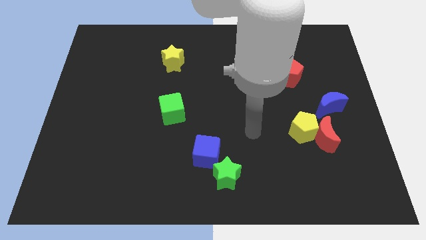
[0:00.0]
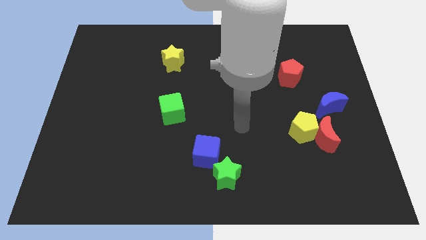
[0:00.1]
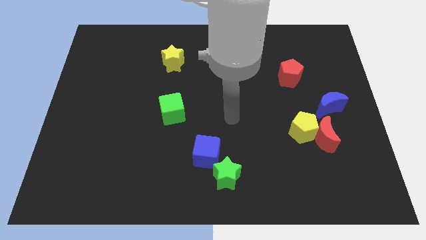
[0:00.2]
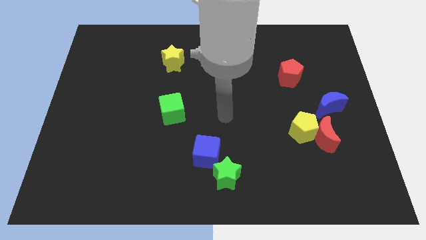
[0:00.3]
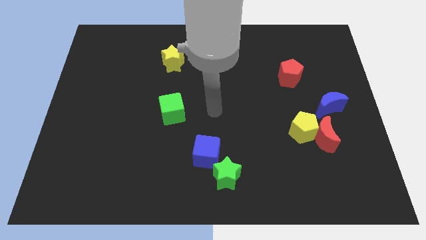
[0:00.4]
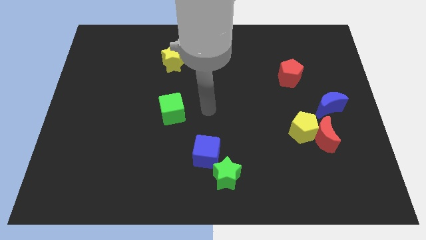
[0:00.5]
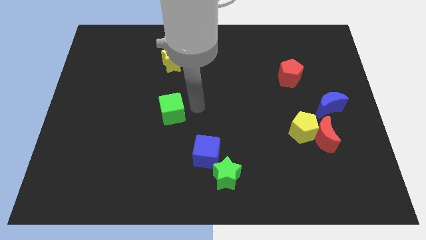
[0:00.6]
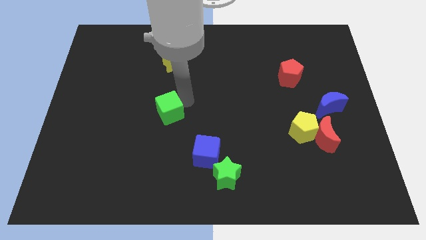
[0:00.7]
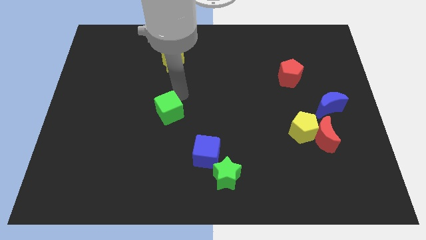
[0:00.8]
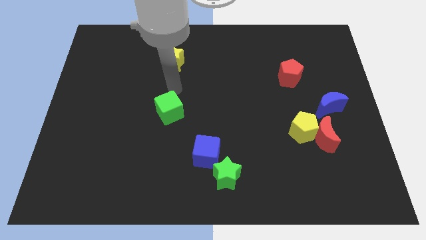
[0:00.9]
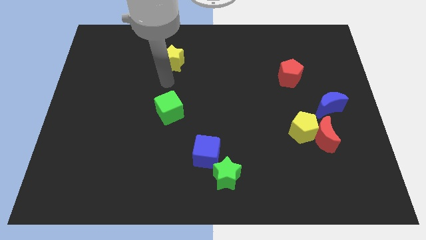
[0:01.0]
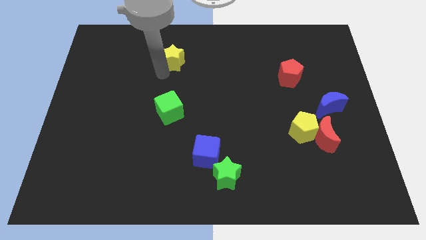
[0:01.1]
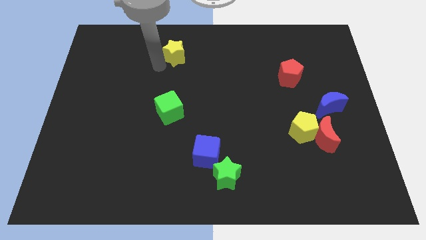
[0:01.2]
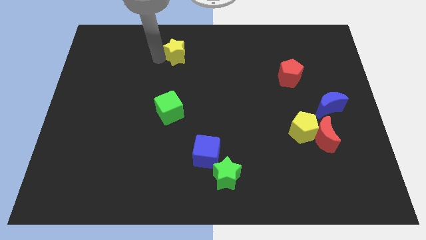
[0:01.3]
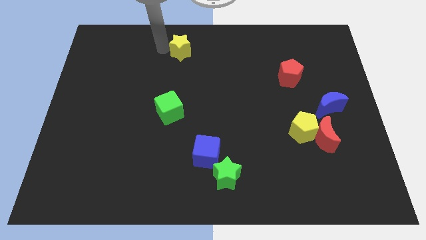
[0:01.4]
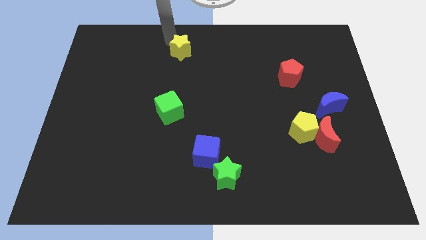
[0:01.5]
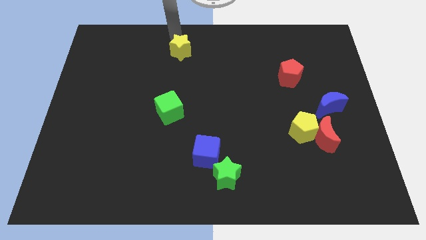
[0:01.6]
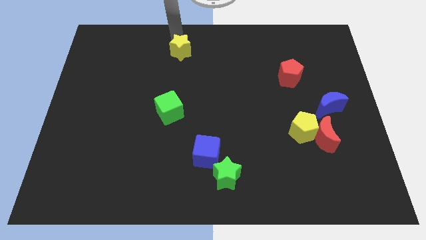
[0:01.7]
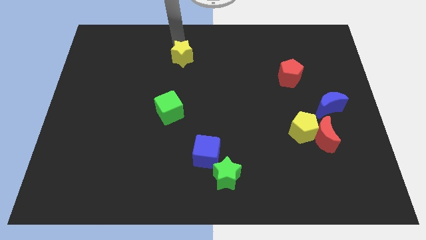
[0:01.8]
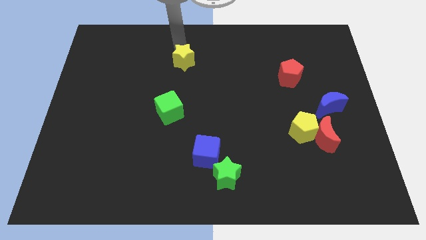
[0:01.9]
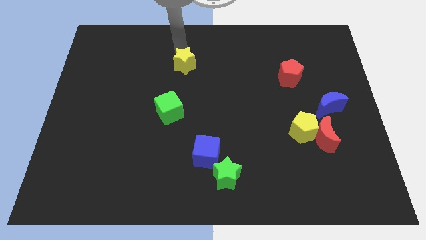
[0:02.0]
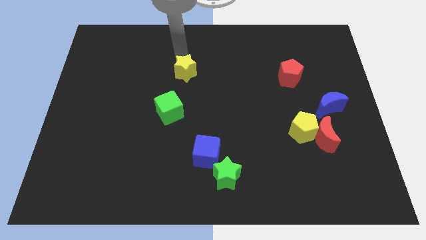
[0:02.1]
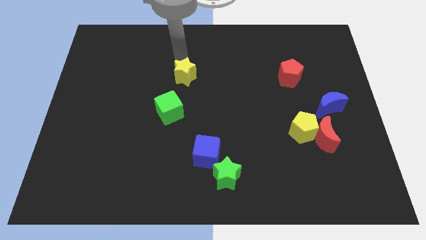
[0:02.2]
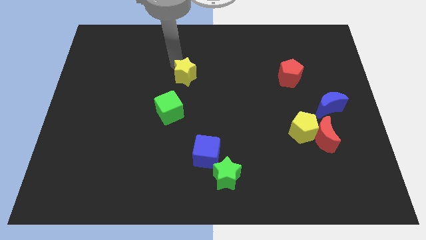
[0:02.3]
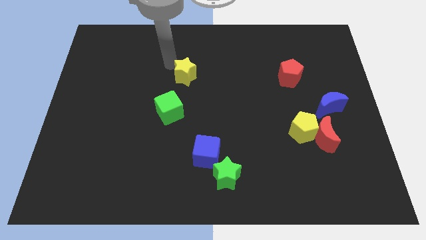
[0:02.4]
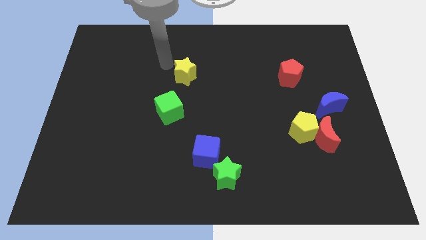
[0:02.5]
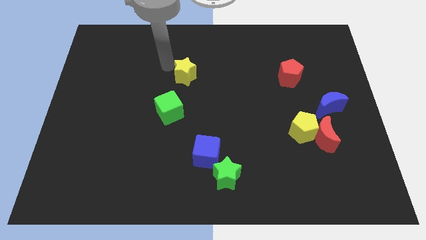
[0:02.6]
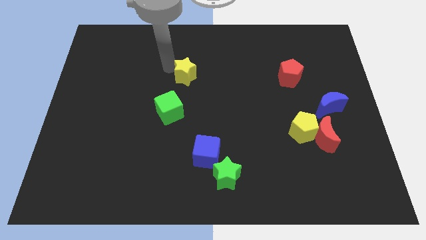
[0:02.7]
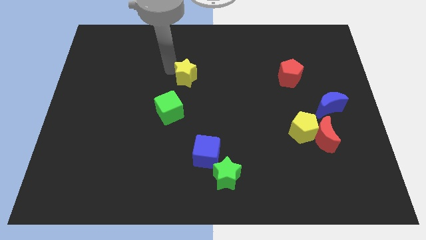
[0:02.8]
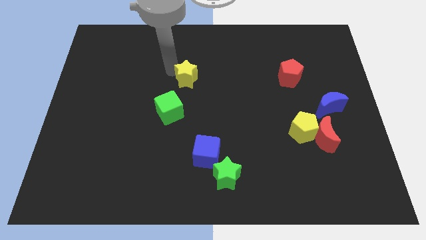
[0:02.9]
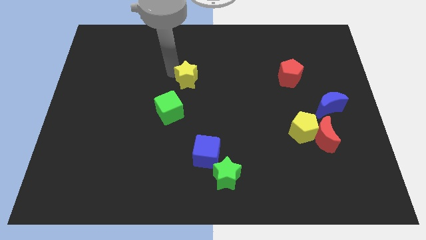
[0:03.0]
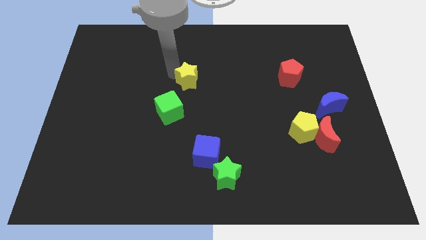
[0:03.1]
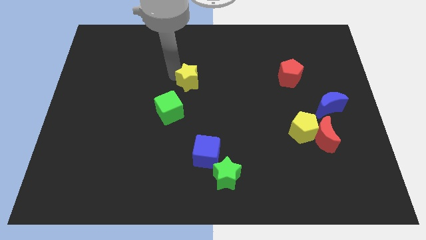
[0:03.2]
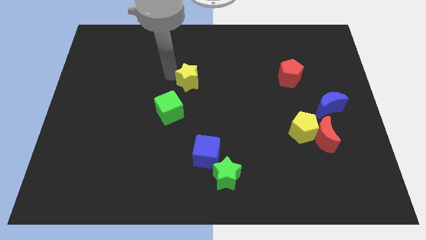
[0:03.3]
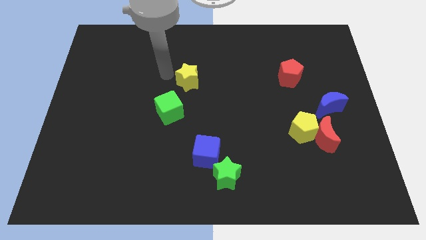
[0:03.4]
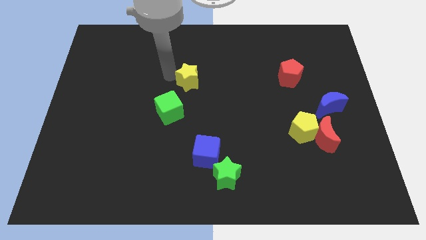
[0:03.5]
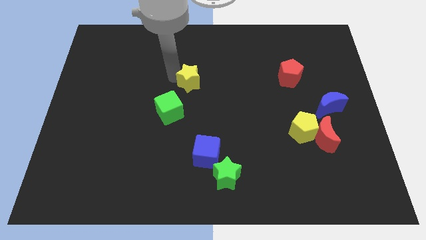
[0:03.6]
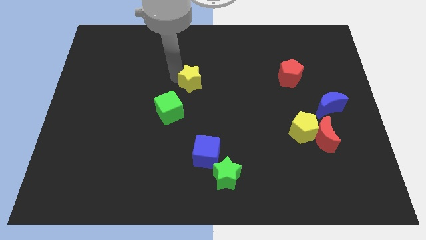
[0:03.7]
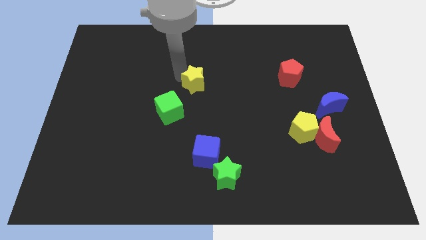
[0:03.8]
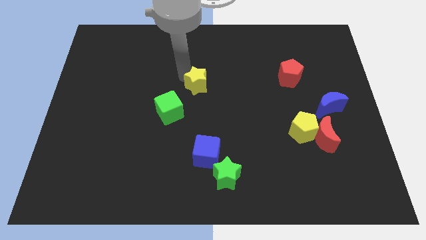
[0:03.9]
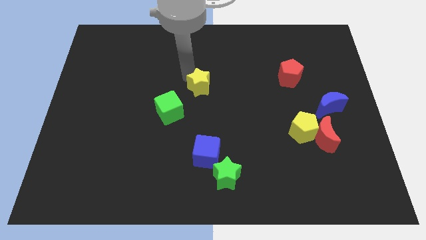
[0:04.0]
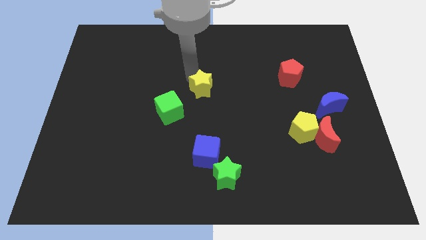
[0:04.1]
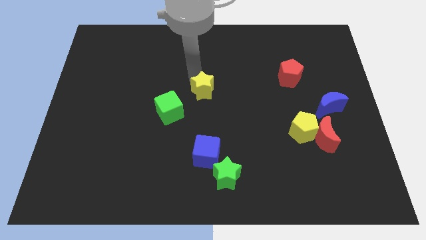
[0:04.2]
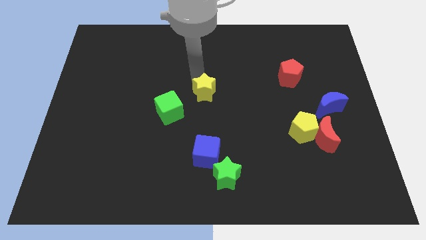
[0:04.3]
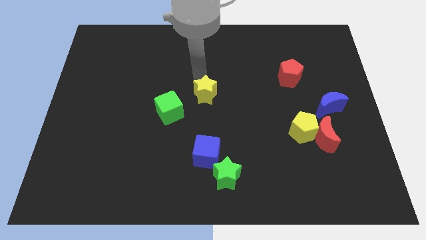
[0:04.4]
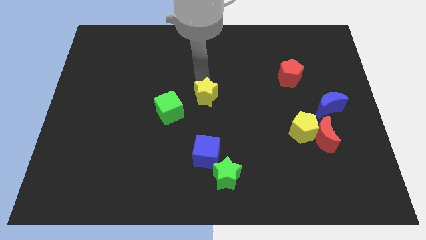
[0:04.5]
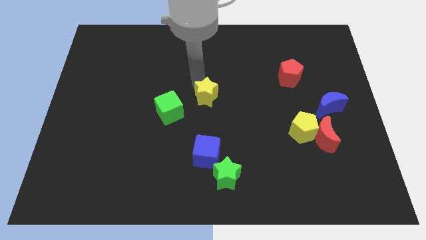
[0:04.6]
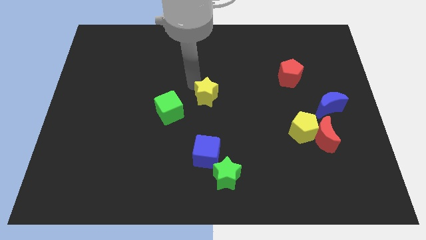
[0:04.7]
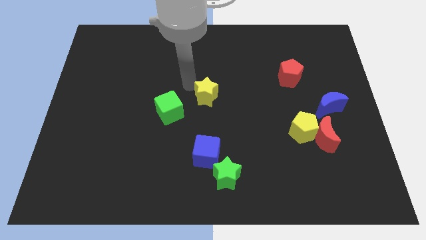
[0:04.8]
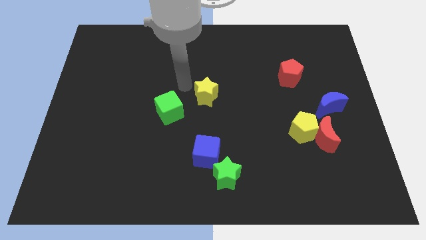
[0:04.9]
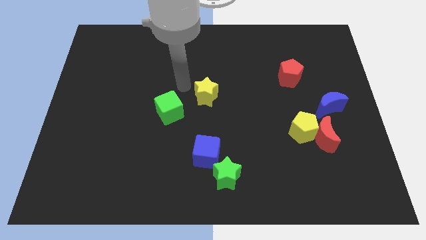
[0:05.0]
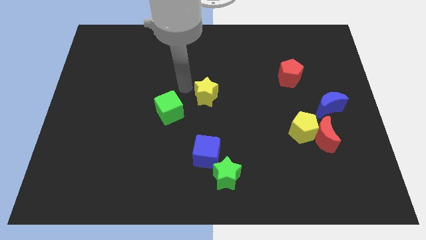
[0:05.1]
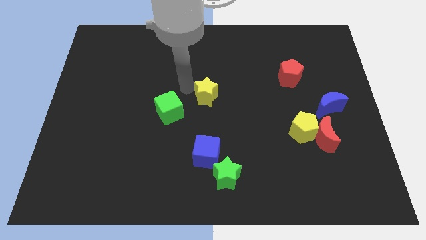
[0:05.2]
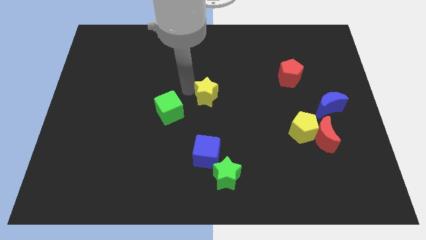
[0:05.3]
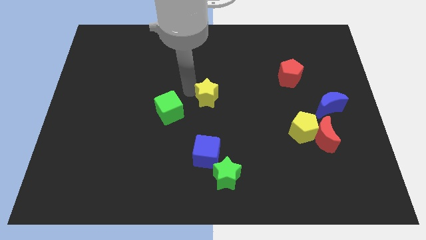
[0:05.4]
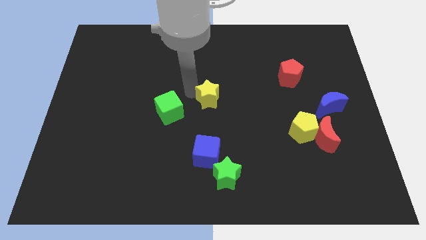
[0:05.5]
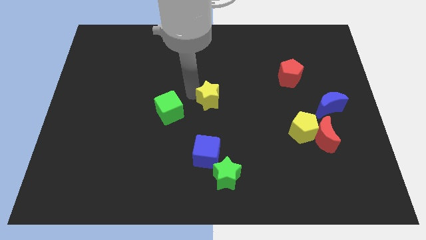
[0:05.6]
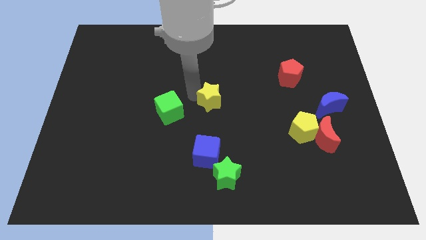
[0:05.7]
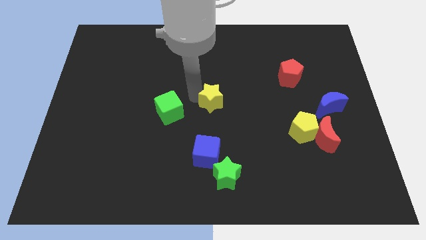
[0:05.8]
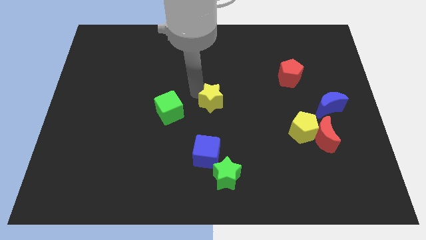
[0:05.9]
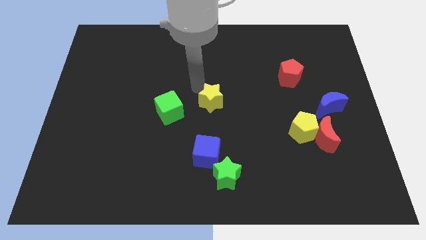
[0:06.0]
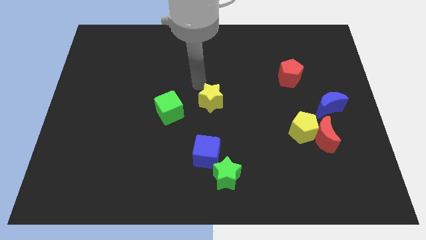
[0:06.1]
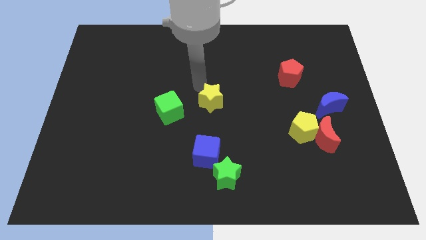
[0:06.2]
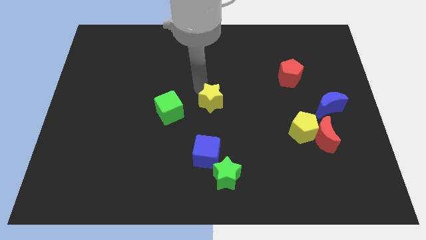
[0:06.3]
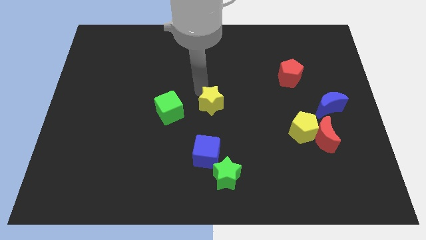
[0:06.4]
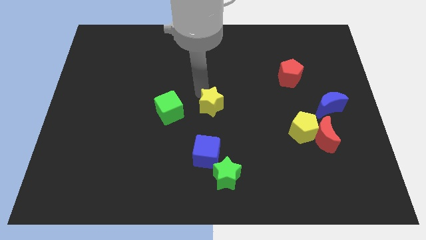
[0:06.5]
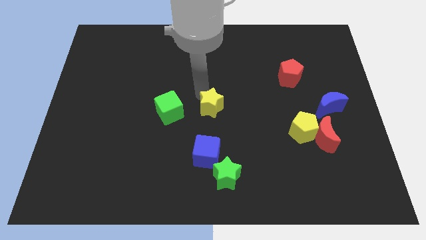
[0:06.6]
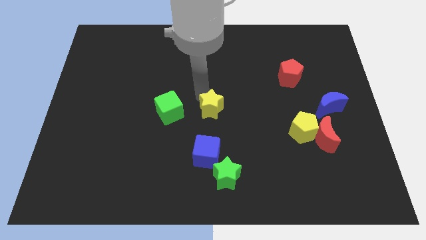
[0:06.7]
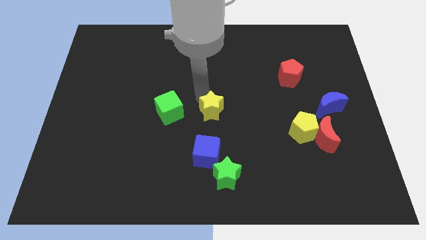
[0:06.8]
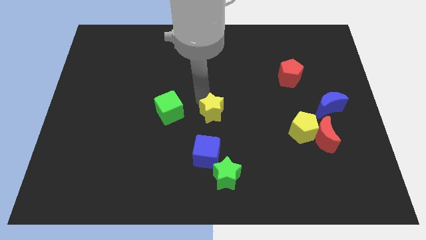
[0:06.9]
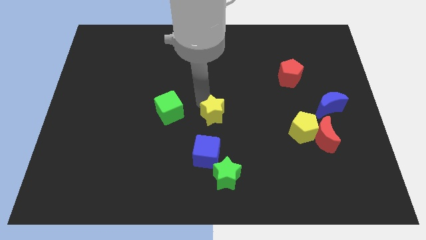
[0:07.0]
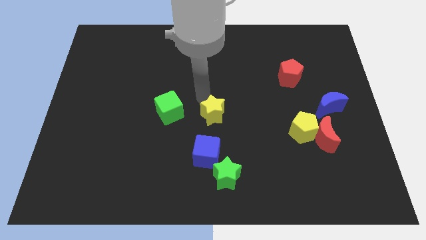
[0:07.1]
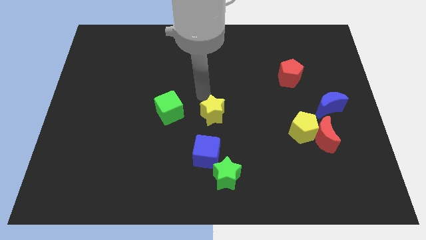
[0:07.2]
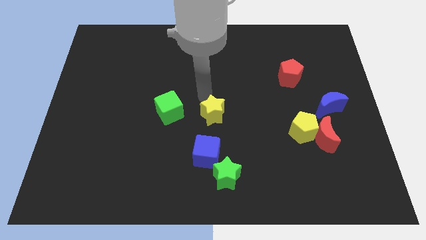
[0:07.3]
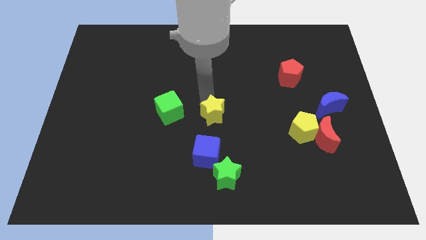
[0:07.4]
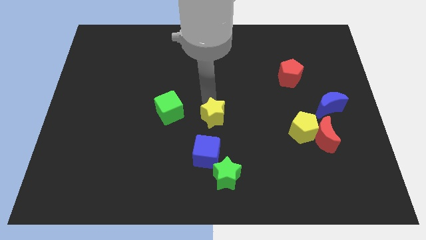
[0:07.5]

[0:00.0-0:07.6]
move the yellow star to the top of the green star

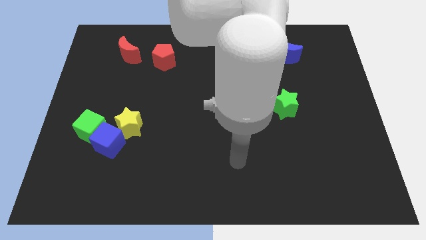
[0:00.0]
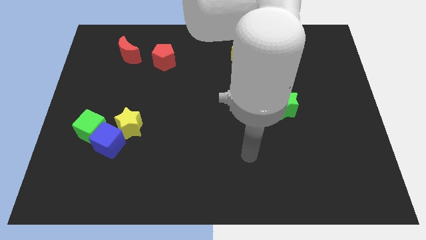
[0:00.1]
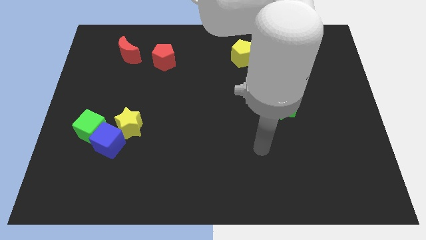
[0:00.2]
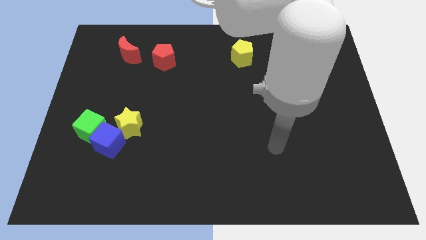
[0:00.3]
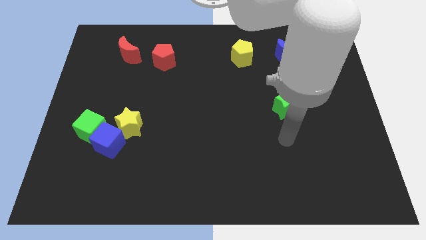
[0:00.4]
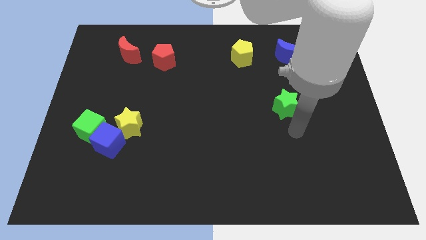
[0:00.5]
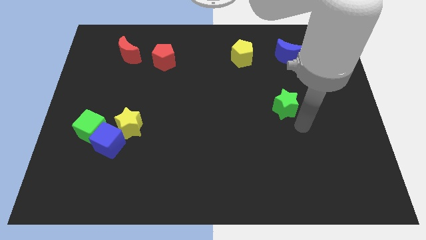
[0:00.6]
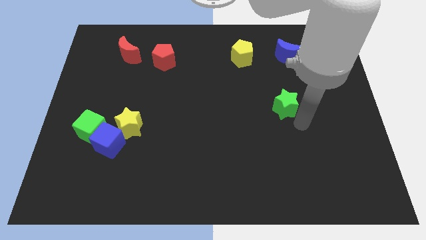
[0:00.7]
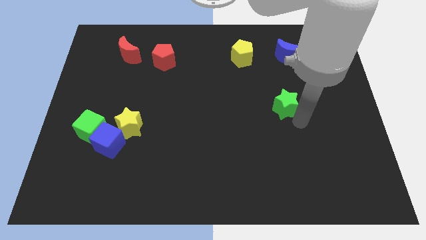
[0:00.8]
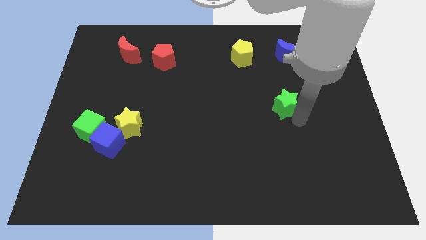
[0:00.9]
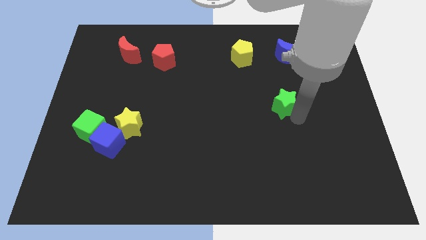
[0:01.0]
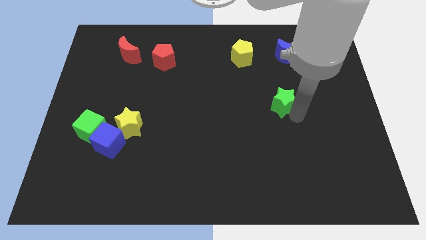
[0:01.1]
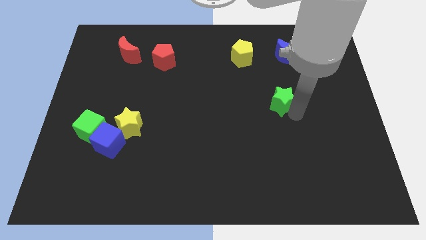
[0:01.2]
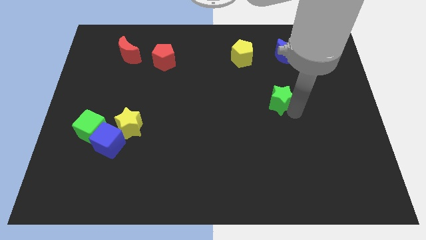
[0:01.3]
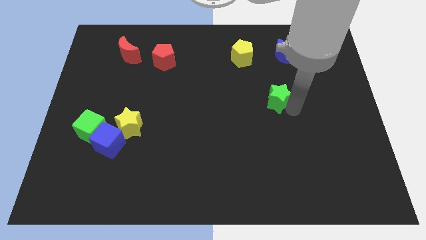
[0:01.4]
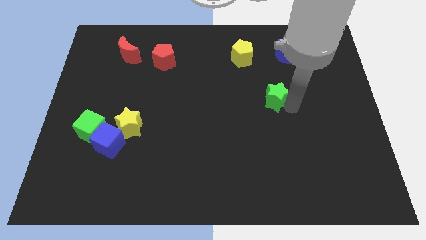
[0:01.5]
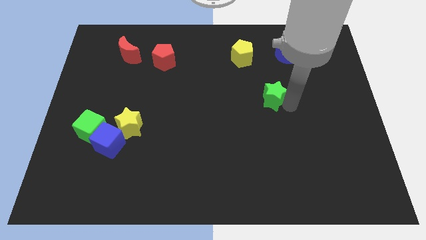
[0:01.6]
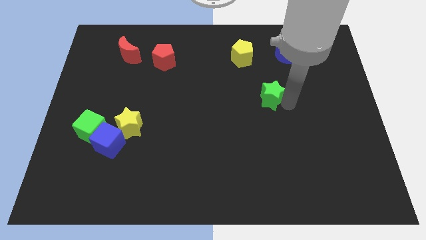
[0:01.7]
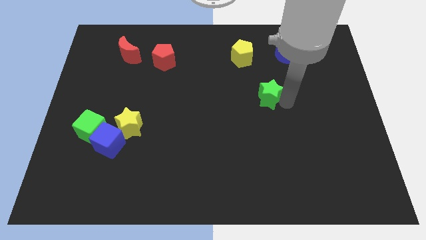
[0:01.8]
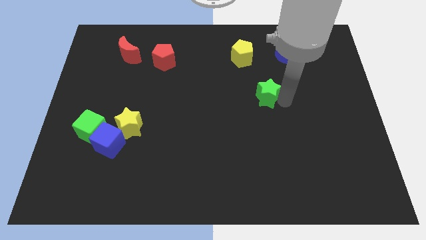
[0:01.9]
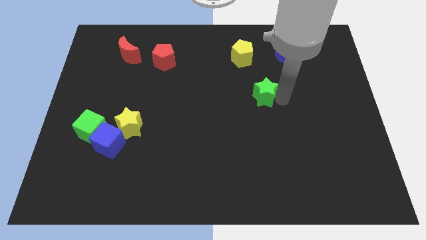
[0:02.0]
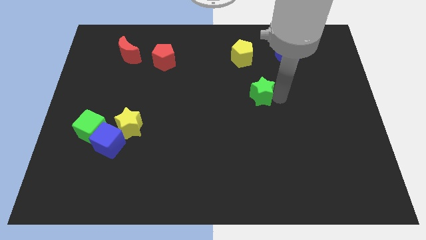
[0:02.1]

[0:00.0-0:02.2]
put the green star to the bottom of the yellow pentagon
